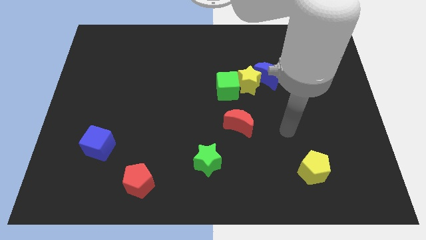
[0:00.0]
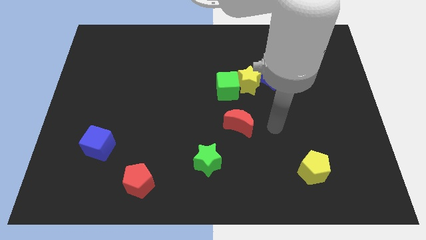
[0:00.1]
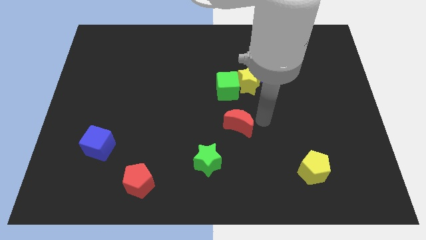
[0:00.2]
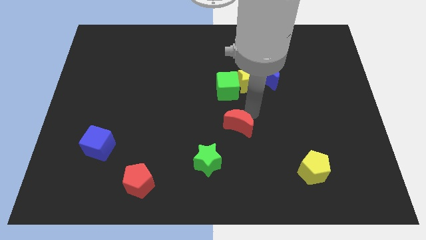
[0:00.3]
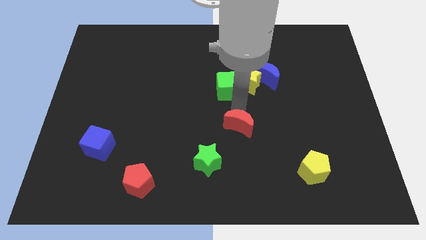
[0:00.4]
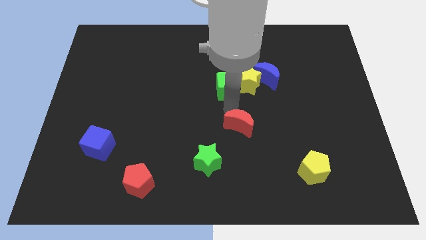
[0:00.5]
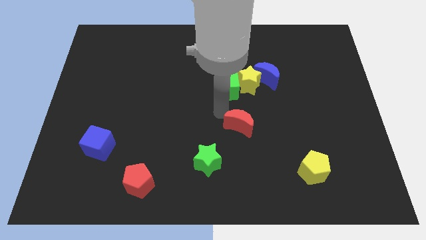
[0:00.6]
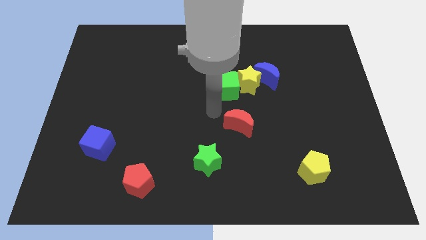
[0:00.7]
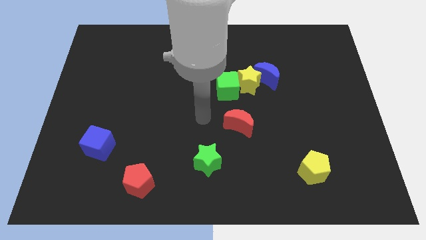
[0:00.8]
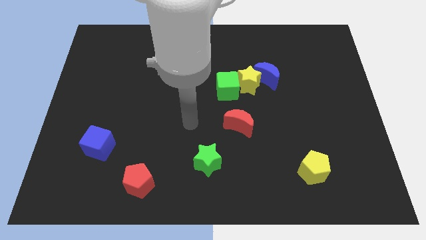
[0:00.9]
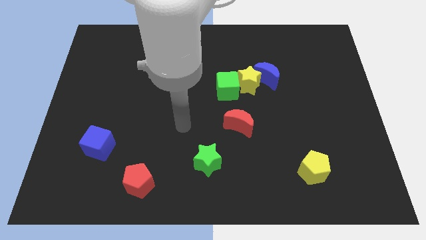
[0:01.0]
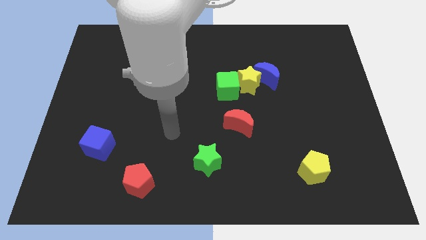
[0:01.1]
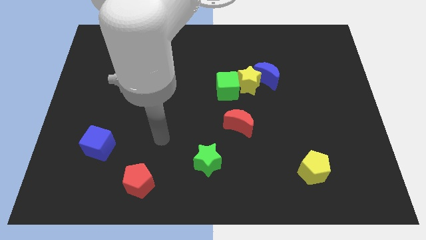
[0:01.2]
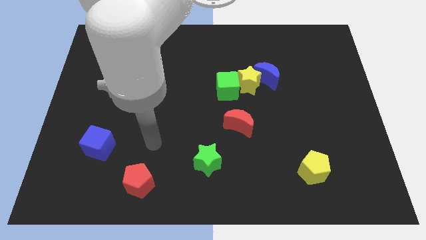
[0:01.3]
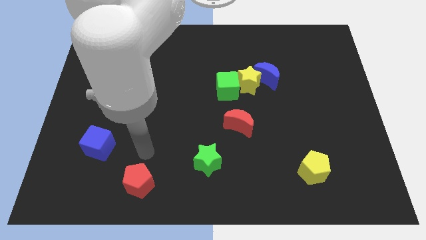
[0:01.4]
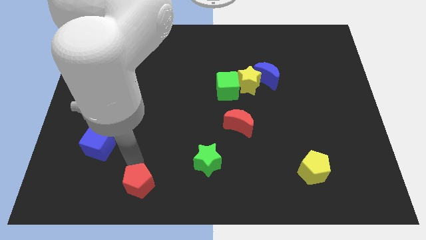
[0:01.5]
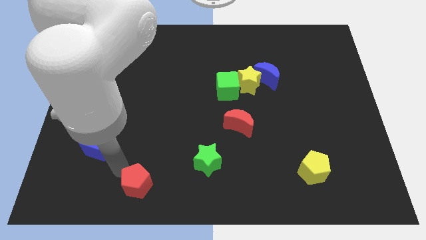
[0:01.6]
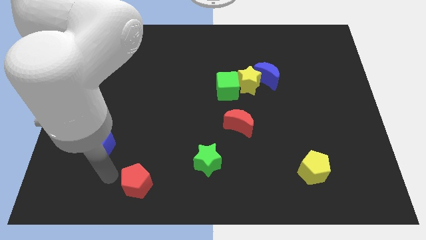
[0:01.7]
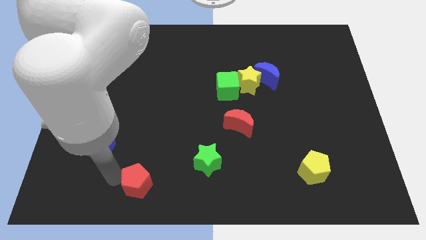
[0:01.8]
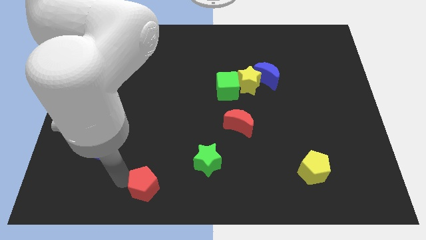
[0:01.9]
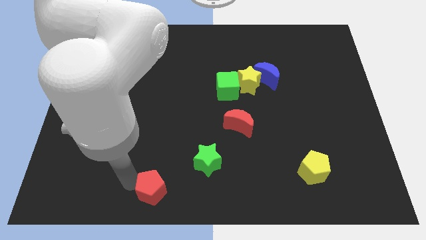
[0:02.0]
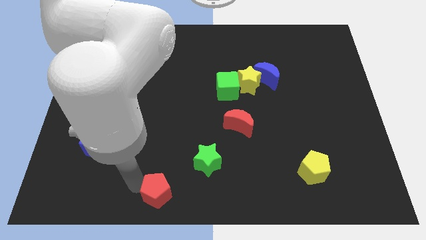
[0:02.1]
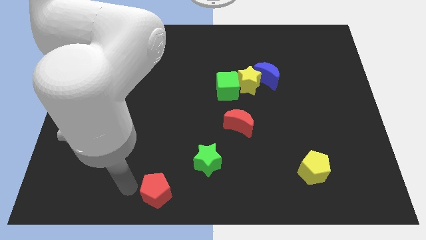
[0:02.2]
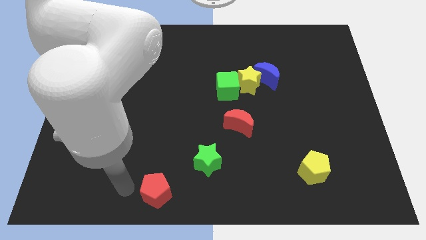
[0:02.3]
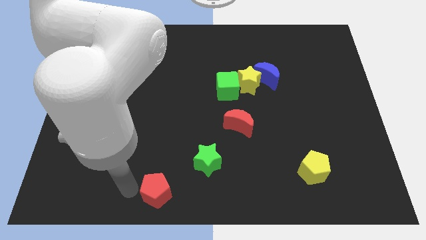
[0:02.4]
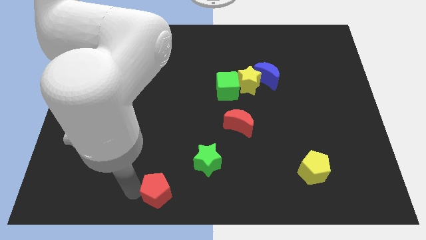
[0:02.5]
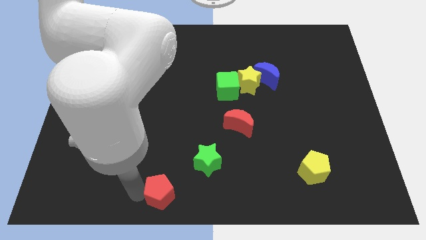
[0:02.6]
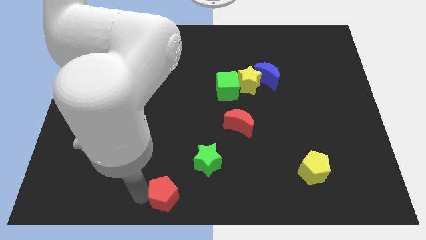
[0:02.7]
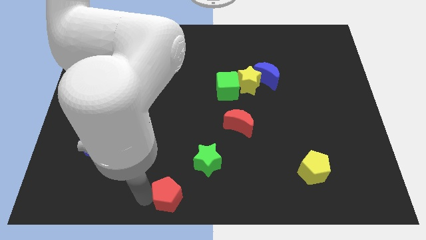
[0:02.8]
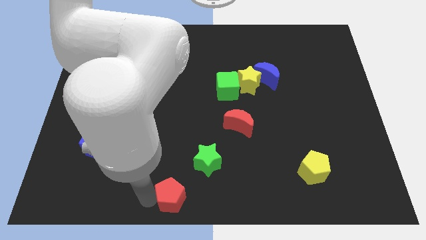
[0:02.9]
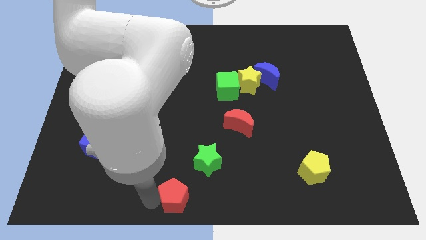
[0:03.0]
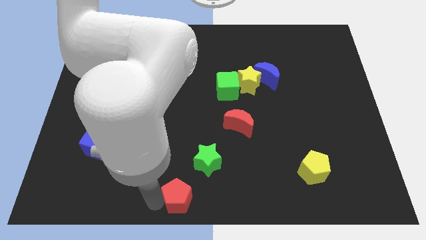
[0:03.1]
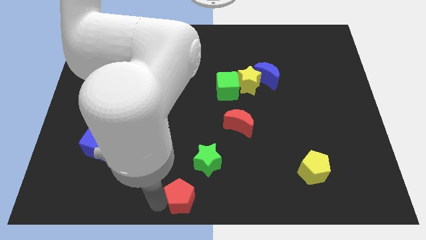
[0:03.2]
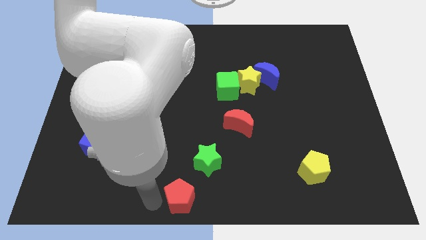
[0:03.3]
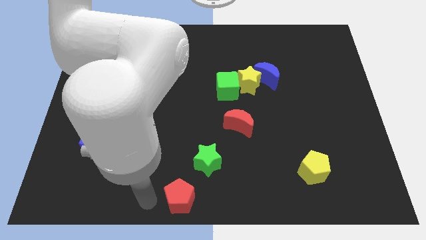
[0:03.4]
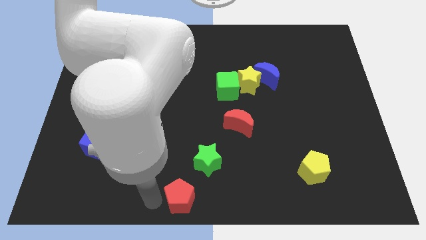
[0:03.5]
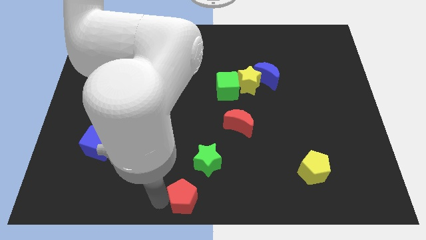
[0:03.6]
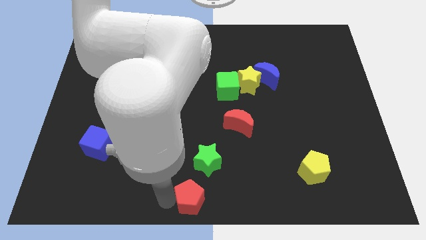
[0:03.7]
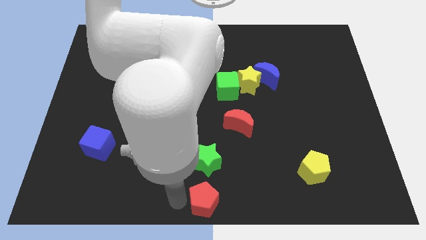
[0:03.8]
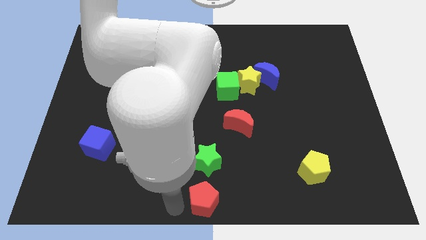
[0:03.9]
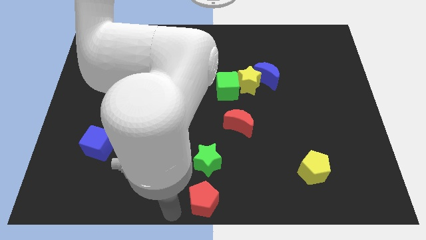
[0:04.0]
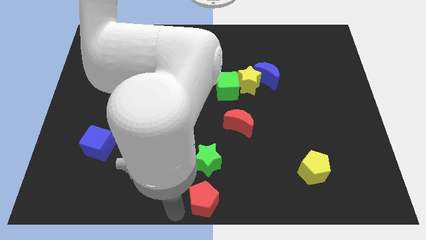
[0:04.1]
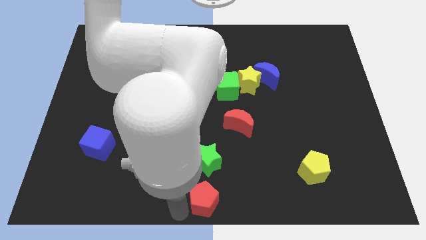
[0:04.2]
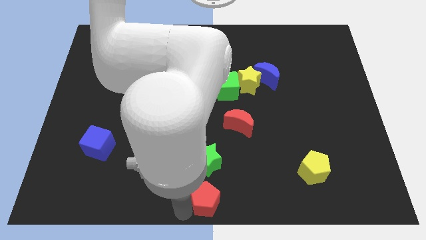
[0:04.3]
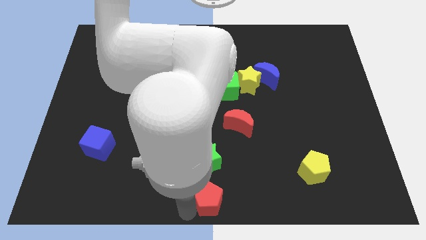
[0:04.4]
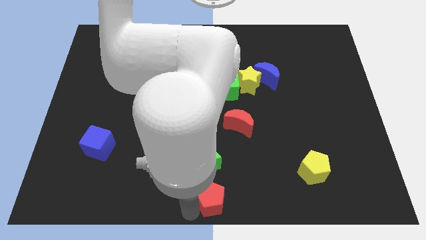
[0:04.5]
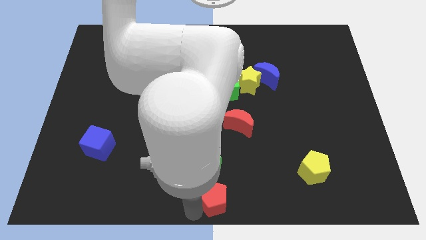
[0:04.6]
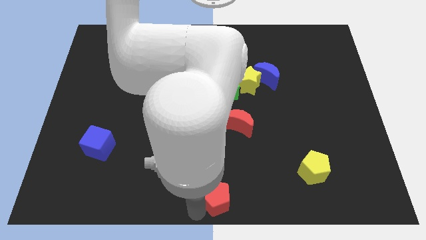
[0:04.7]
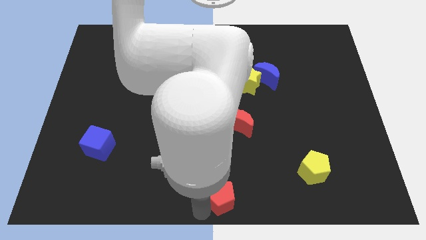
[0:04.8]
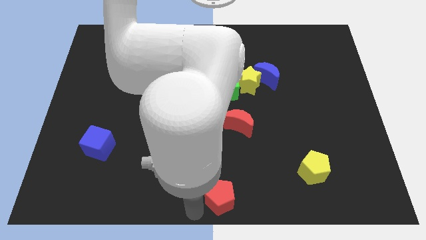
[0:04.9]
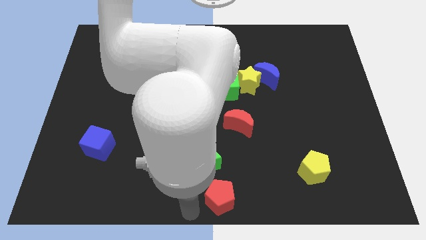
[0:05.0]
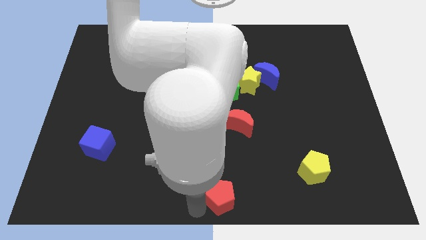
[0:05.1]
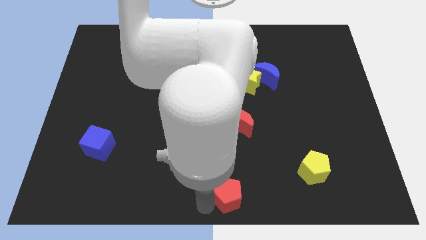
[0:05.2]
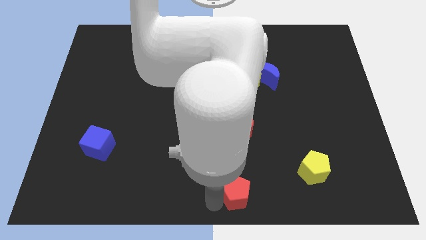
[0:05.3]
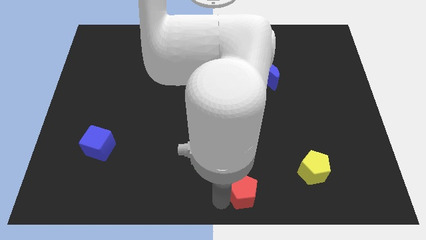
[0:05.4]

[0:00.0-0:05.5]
push the red pentagon to the right

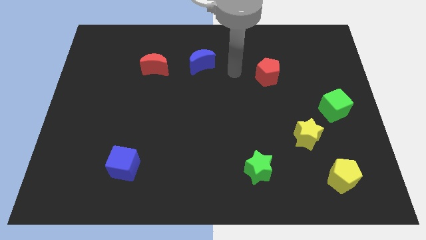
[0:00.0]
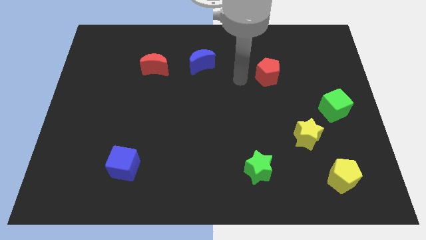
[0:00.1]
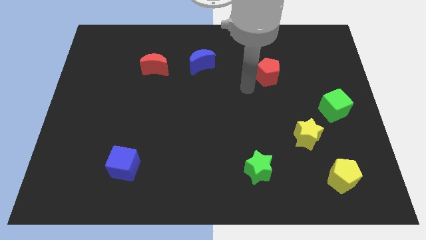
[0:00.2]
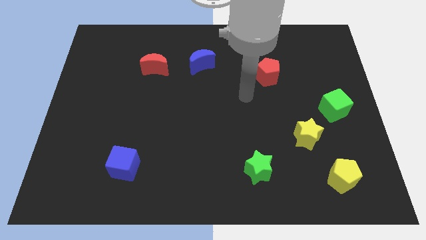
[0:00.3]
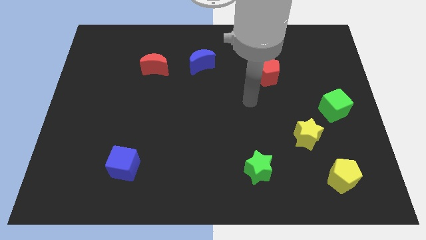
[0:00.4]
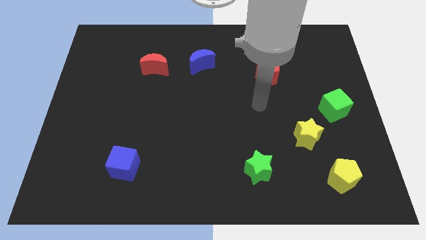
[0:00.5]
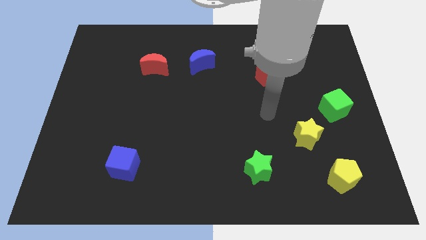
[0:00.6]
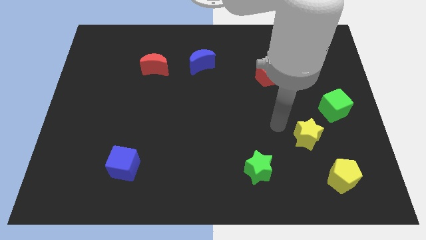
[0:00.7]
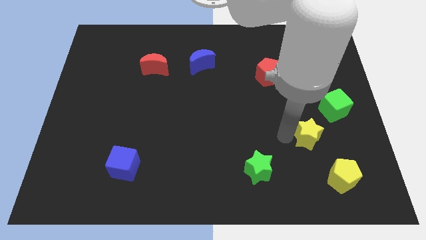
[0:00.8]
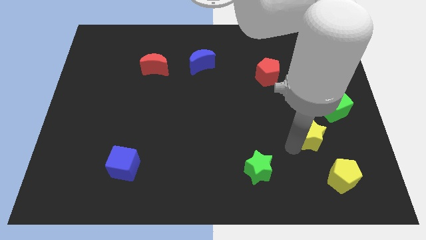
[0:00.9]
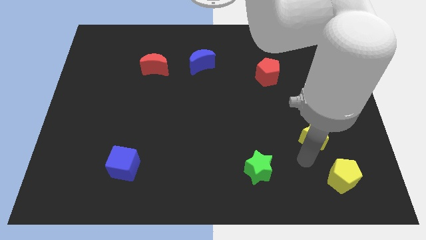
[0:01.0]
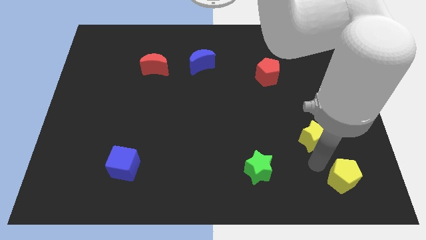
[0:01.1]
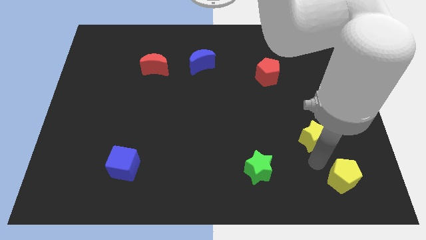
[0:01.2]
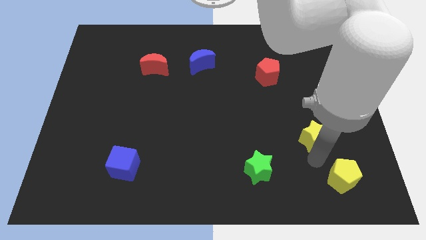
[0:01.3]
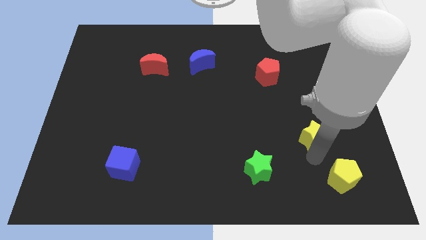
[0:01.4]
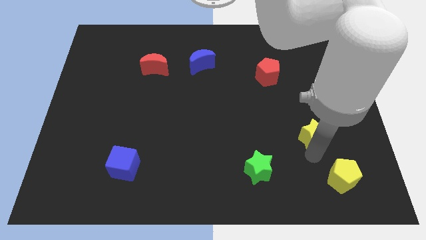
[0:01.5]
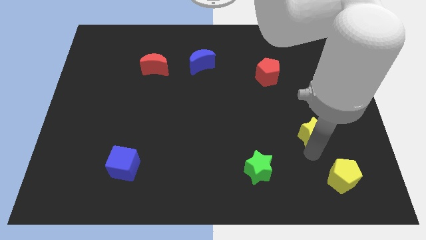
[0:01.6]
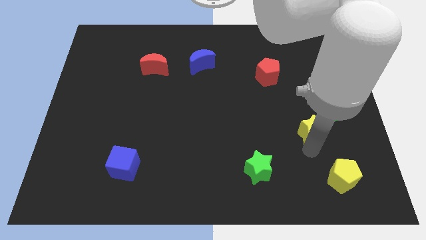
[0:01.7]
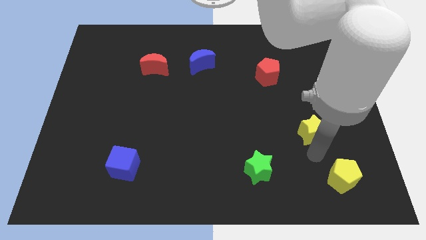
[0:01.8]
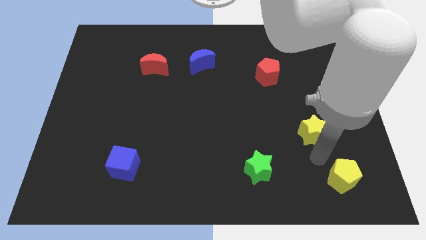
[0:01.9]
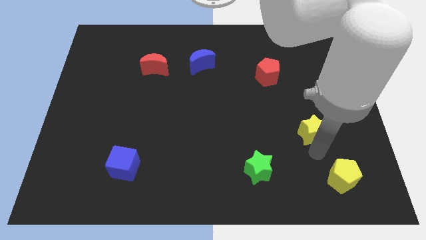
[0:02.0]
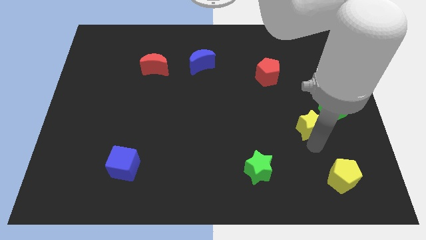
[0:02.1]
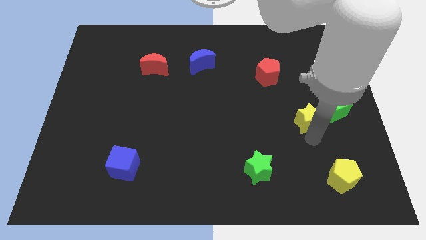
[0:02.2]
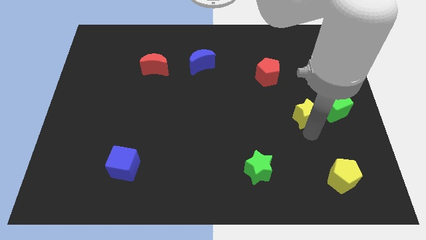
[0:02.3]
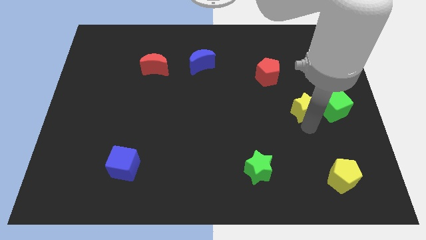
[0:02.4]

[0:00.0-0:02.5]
move the yellow star somewhat upwards

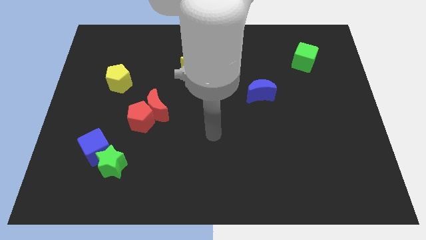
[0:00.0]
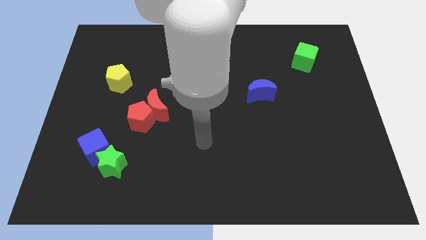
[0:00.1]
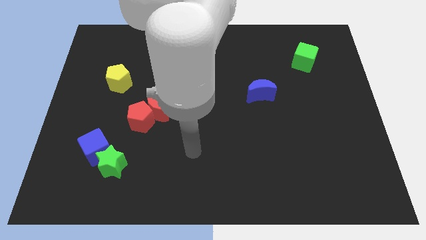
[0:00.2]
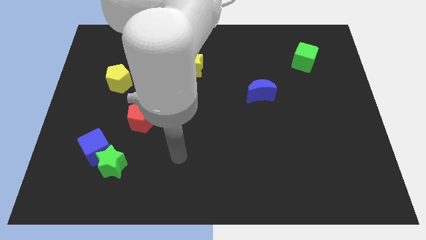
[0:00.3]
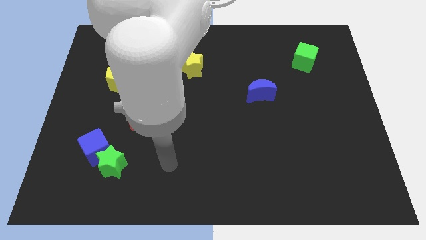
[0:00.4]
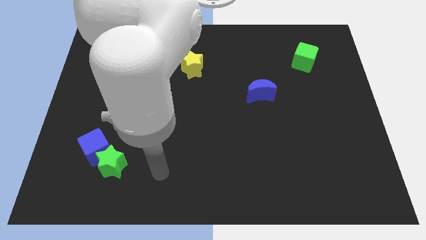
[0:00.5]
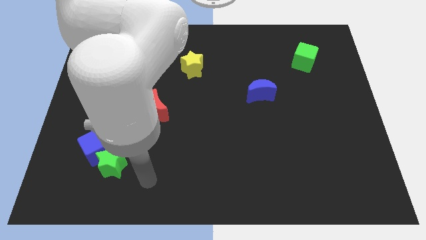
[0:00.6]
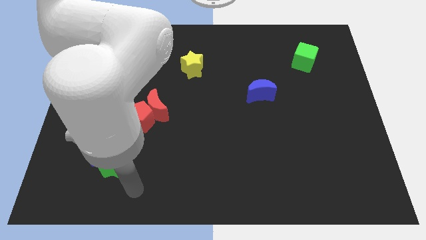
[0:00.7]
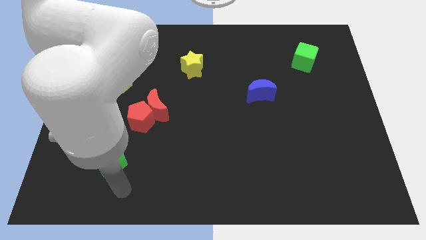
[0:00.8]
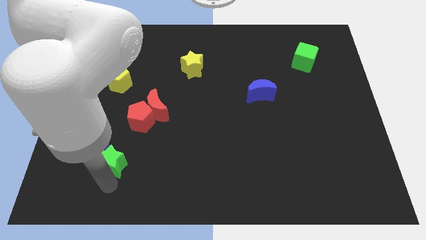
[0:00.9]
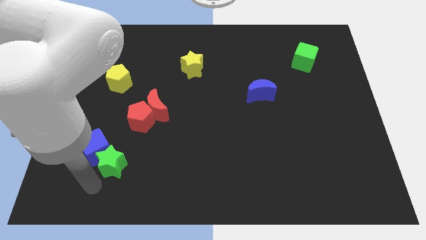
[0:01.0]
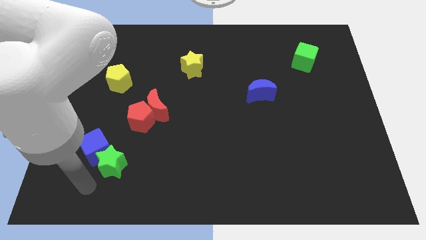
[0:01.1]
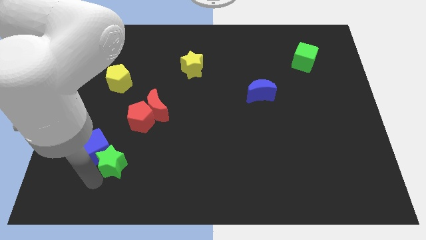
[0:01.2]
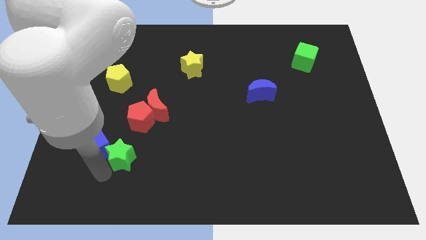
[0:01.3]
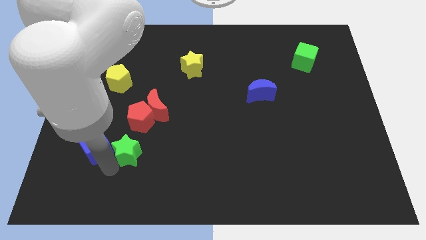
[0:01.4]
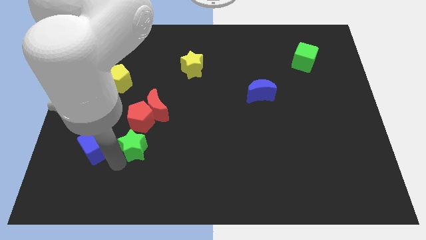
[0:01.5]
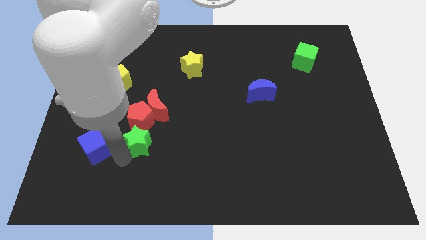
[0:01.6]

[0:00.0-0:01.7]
push the green star up and then right somewhat
